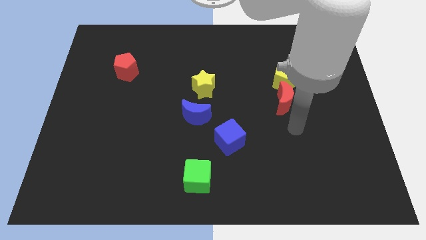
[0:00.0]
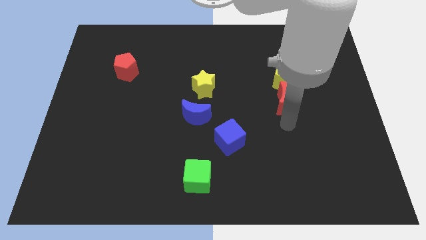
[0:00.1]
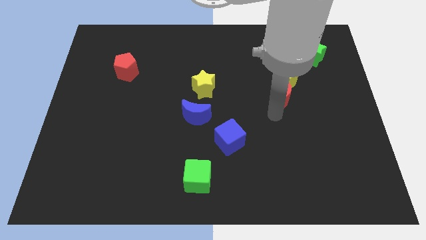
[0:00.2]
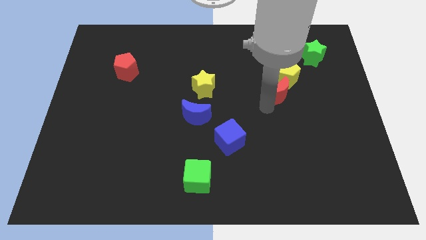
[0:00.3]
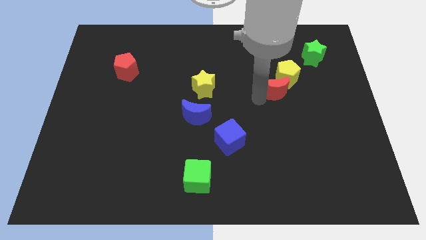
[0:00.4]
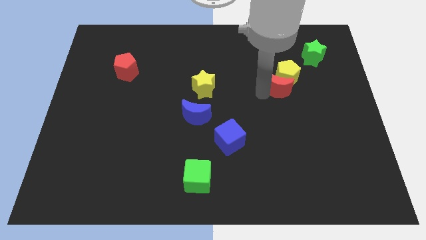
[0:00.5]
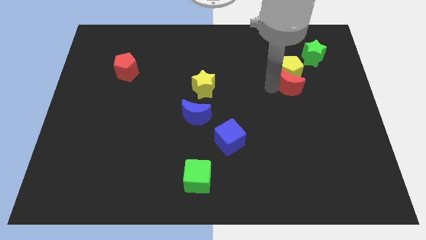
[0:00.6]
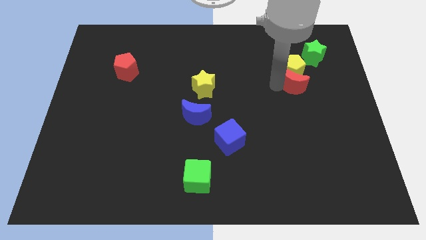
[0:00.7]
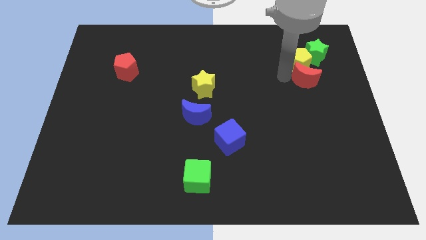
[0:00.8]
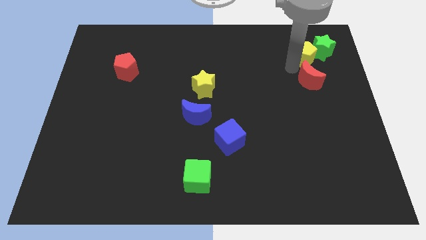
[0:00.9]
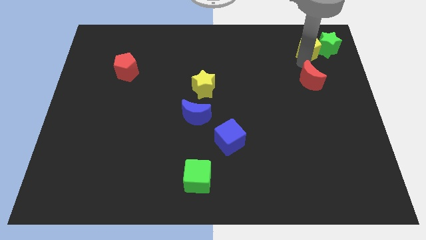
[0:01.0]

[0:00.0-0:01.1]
move the red moon away from the yellow pentagon

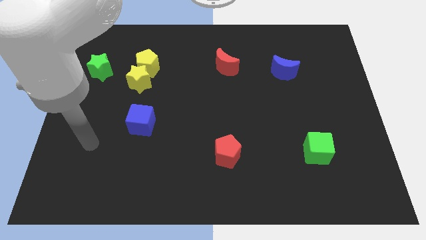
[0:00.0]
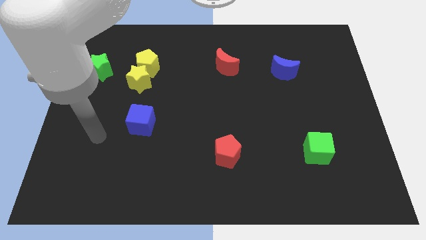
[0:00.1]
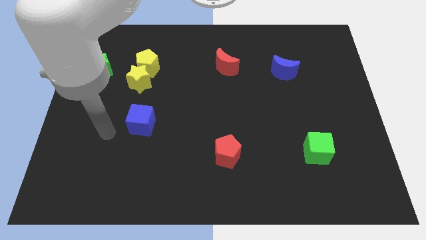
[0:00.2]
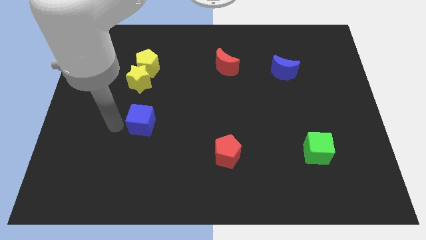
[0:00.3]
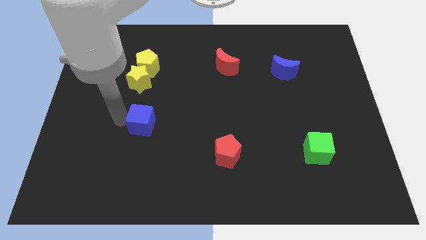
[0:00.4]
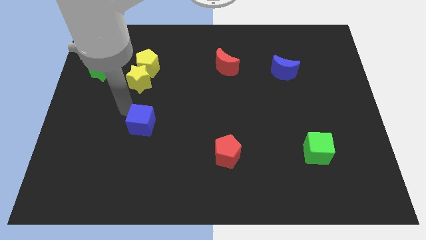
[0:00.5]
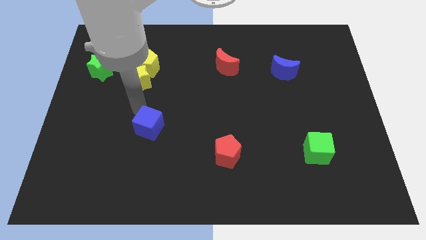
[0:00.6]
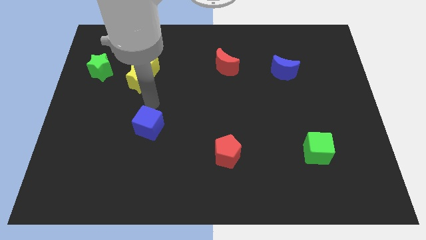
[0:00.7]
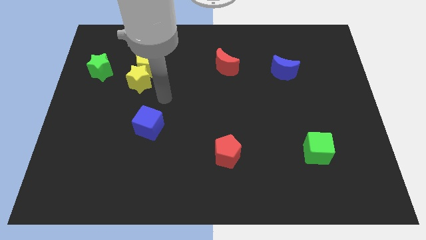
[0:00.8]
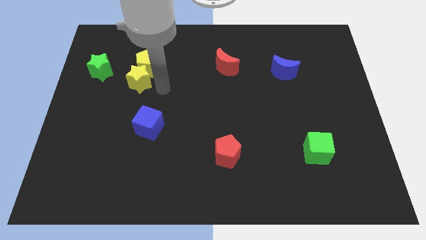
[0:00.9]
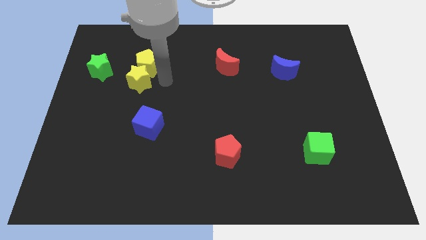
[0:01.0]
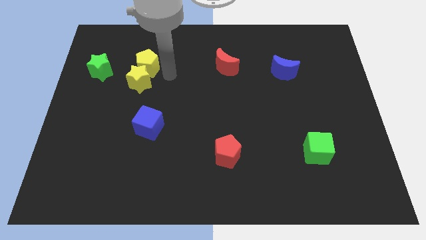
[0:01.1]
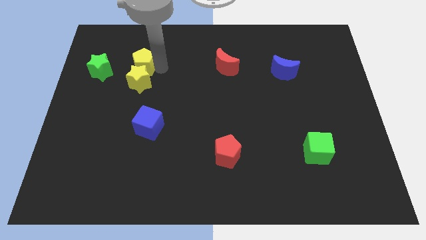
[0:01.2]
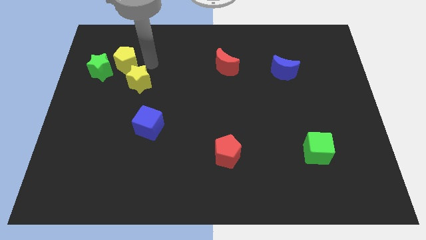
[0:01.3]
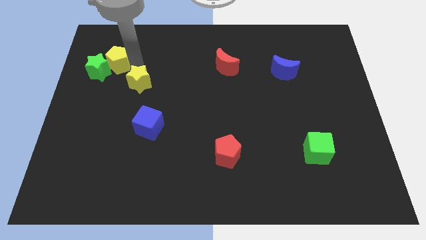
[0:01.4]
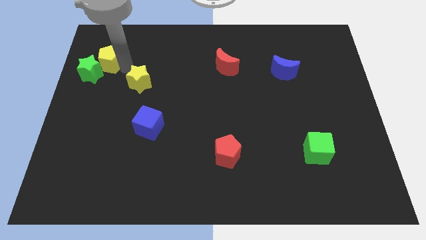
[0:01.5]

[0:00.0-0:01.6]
separate the yellow star from the yellow pentagon

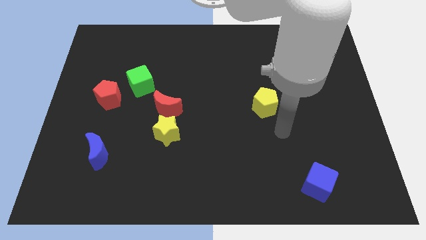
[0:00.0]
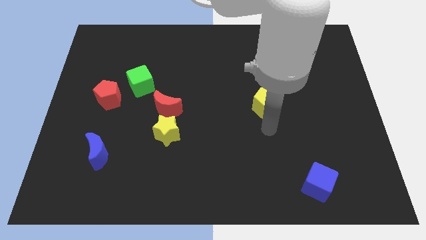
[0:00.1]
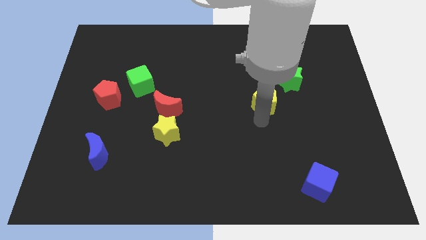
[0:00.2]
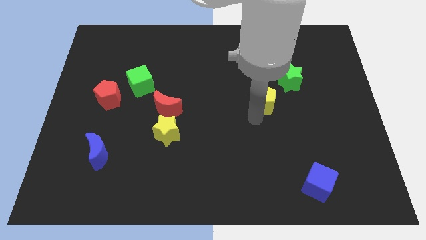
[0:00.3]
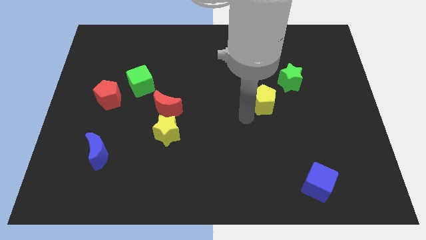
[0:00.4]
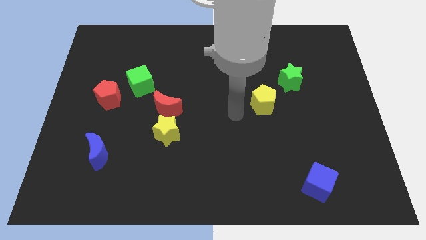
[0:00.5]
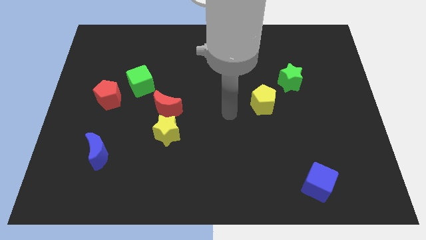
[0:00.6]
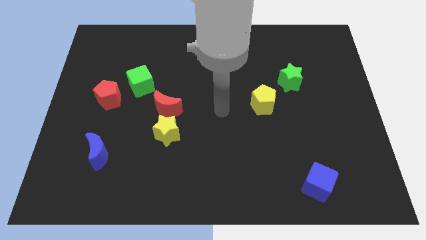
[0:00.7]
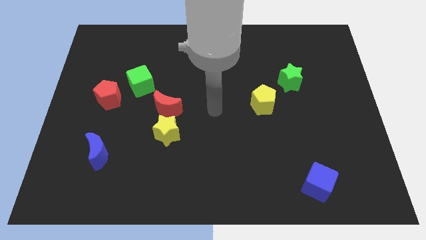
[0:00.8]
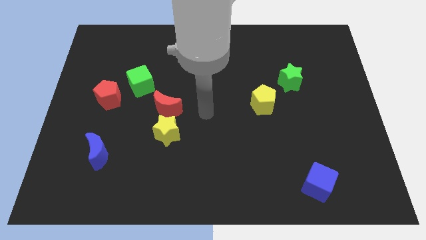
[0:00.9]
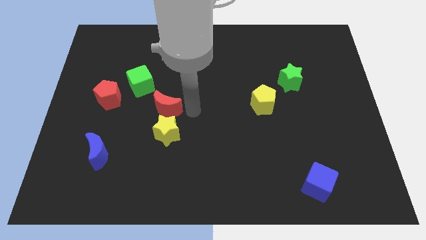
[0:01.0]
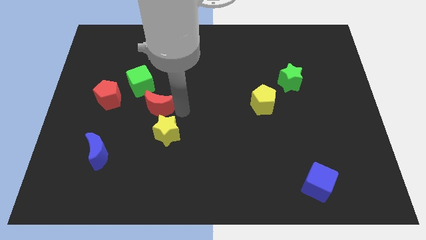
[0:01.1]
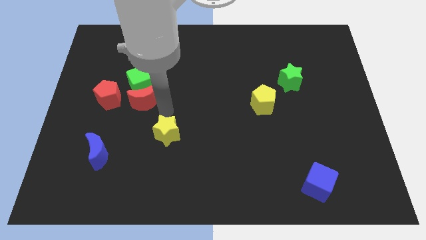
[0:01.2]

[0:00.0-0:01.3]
separate the yellow star from the red moon

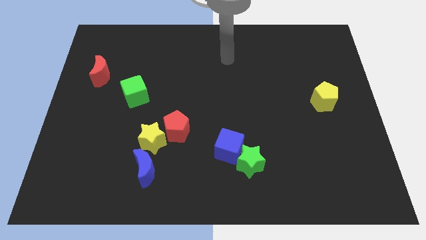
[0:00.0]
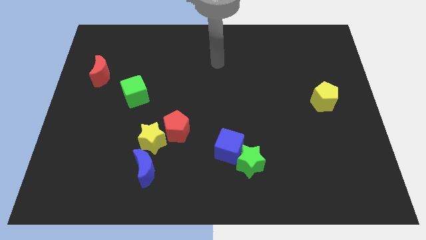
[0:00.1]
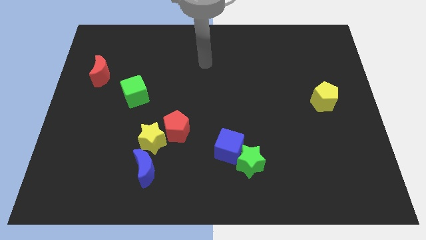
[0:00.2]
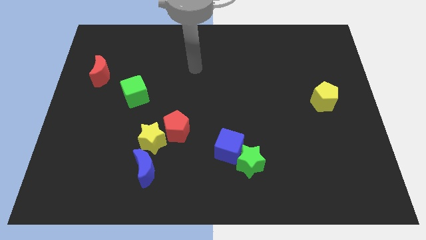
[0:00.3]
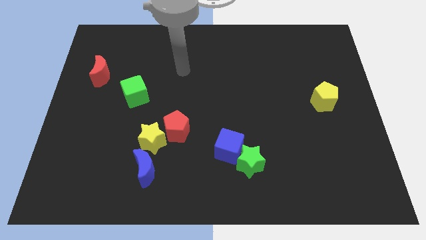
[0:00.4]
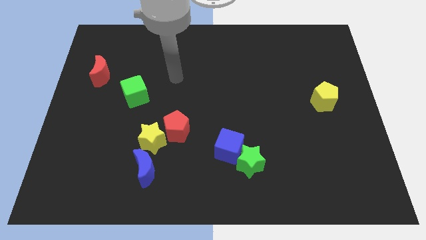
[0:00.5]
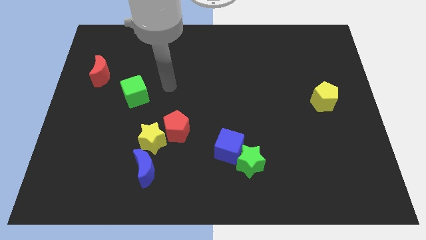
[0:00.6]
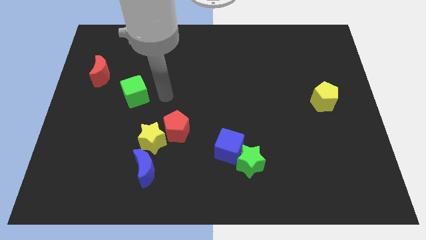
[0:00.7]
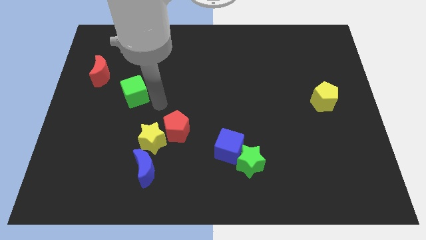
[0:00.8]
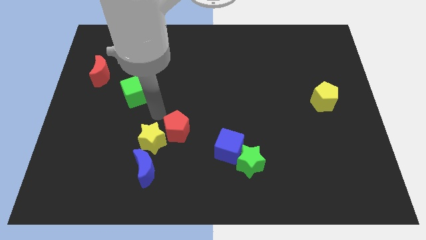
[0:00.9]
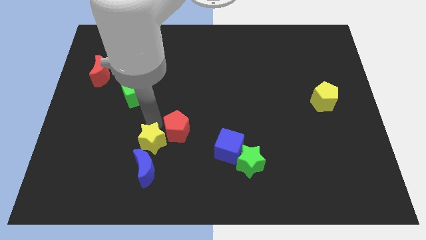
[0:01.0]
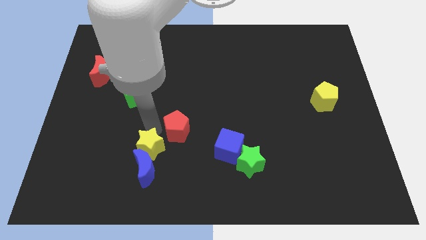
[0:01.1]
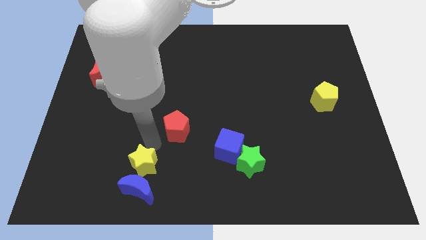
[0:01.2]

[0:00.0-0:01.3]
pull the red pentagon apart from the yellow star

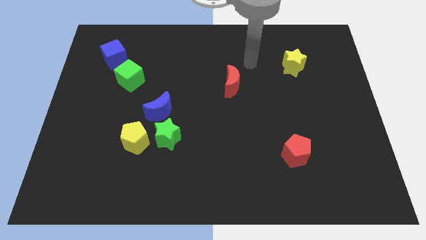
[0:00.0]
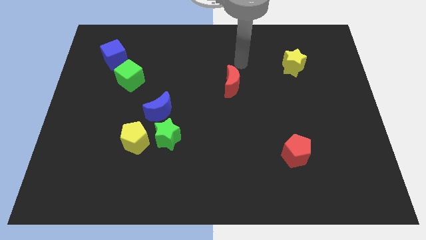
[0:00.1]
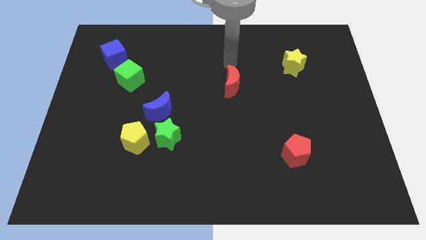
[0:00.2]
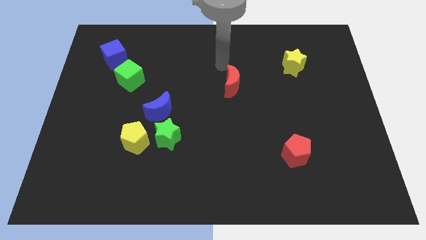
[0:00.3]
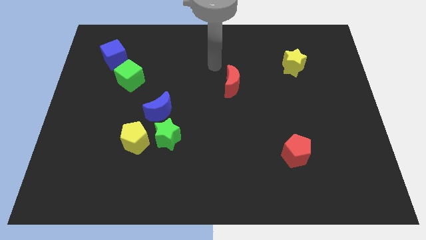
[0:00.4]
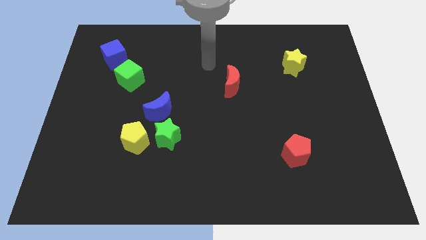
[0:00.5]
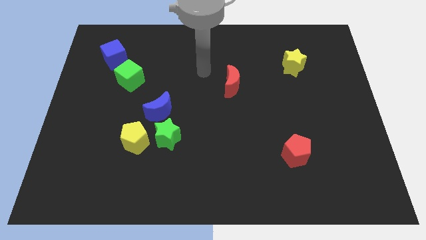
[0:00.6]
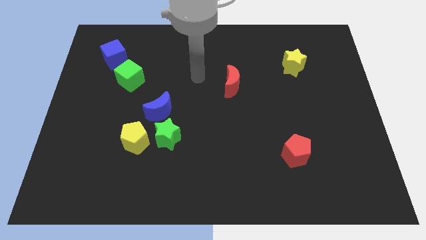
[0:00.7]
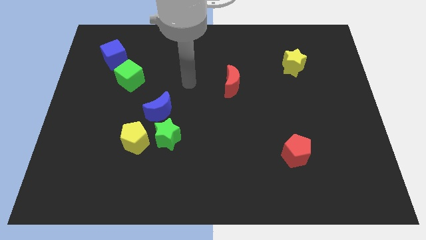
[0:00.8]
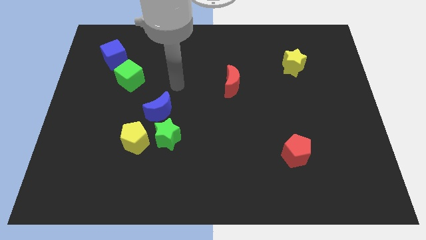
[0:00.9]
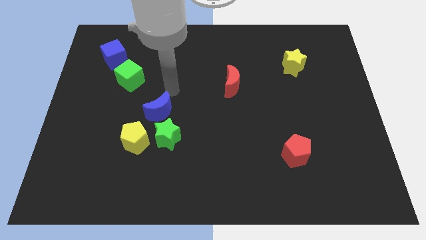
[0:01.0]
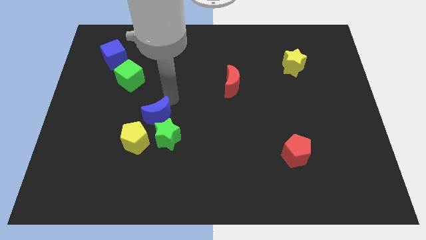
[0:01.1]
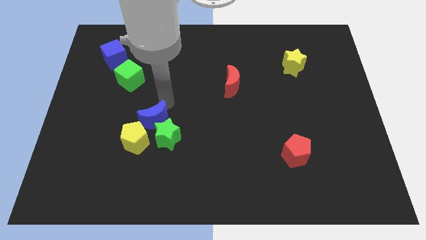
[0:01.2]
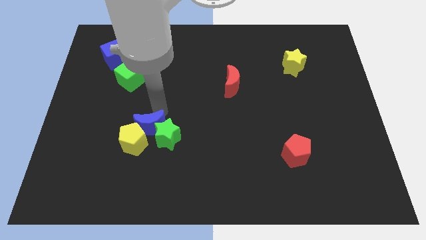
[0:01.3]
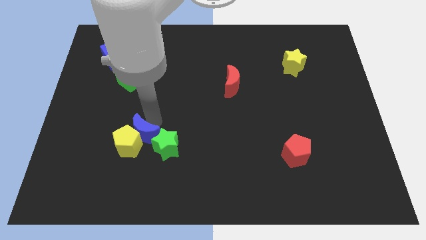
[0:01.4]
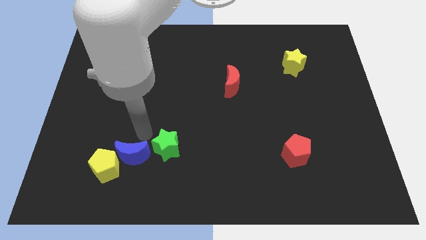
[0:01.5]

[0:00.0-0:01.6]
separate the green star from the yellow pentagon and blue moon

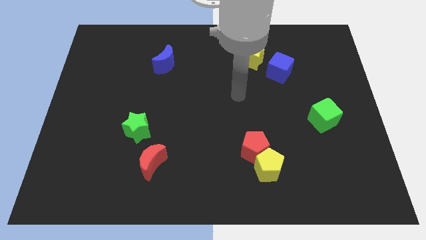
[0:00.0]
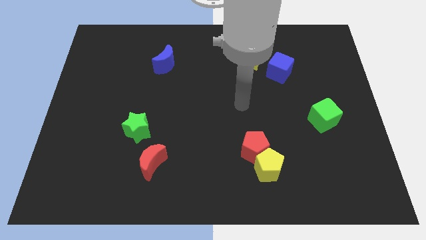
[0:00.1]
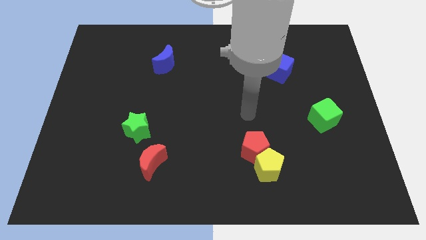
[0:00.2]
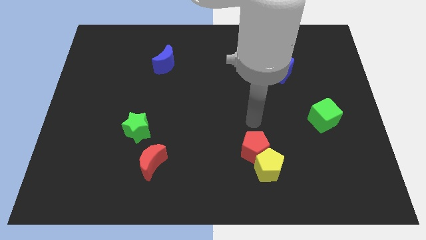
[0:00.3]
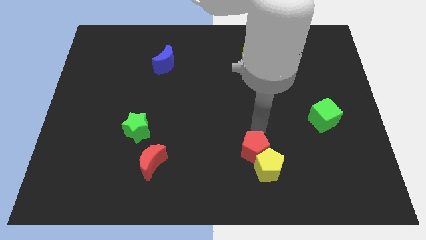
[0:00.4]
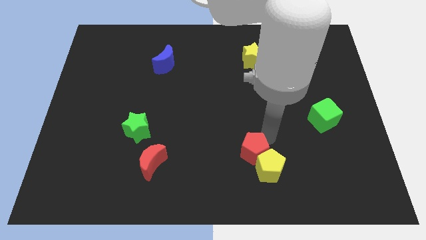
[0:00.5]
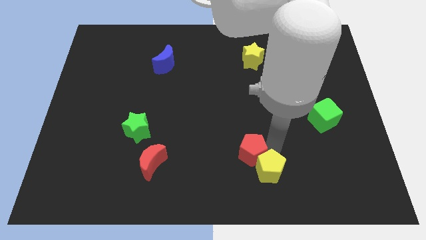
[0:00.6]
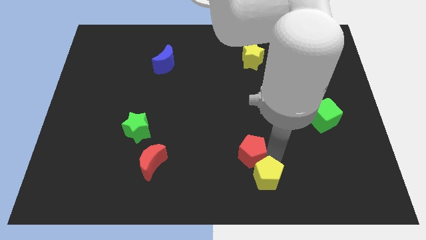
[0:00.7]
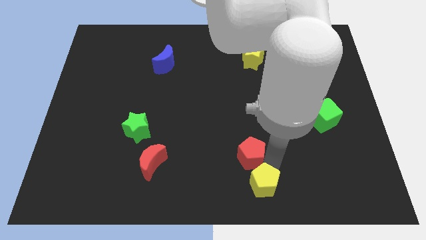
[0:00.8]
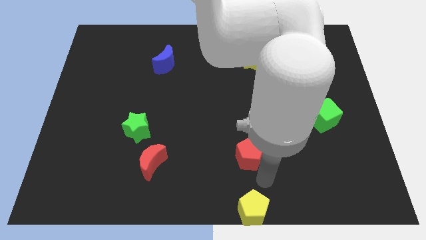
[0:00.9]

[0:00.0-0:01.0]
pull the red pentagon apart from the yellow pentagon

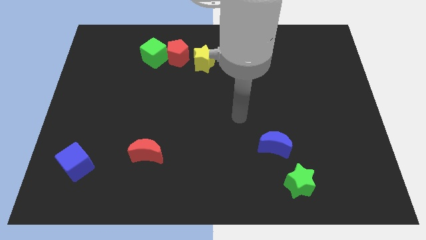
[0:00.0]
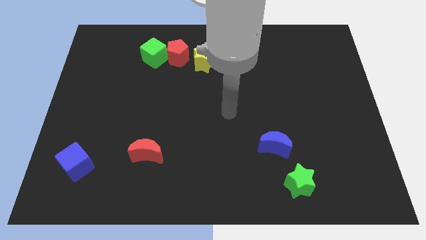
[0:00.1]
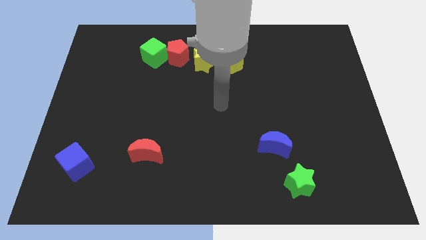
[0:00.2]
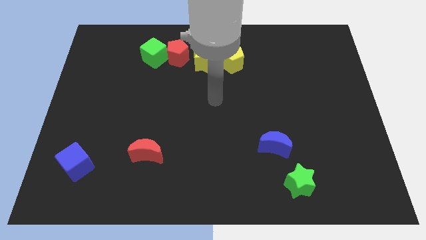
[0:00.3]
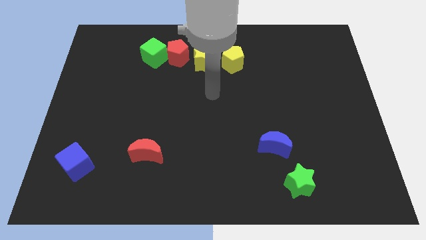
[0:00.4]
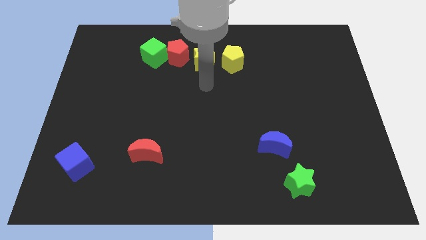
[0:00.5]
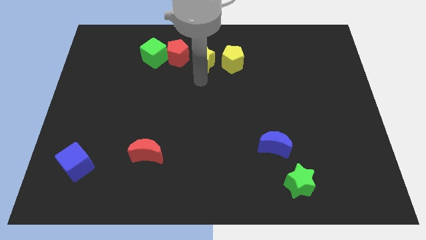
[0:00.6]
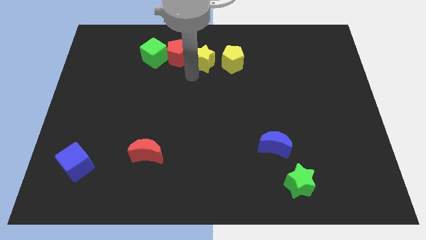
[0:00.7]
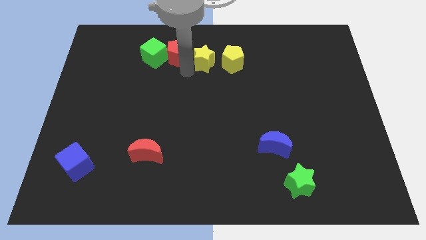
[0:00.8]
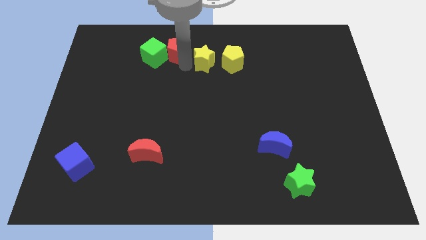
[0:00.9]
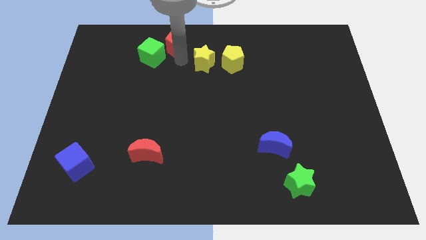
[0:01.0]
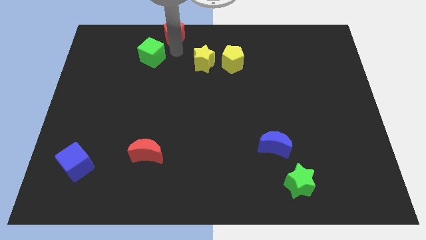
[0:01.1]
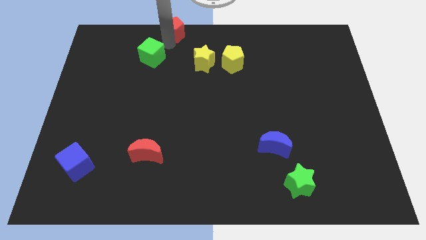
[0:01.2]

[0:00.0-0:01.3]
separate the green cube from the red pentagon
